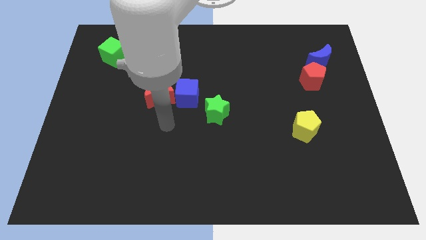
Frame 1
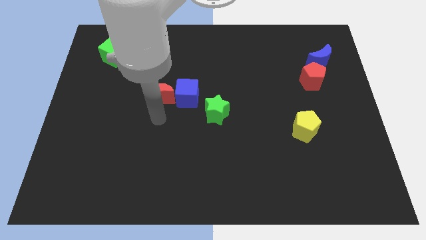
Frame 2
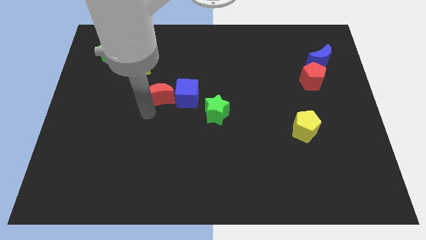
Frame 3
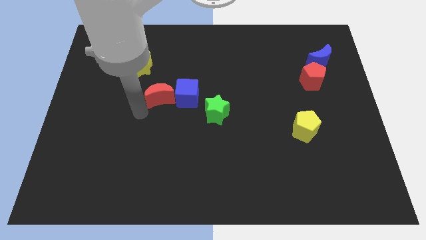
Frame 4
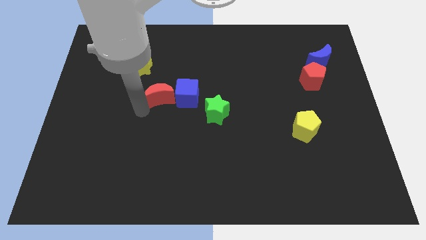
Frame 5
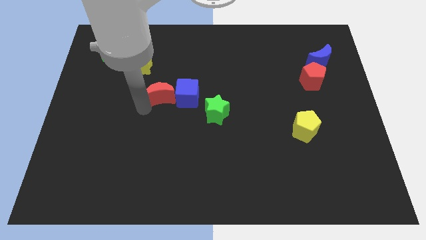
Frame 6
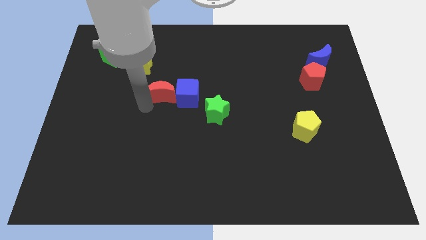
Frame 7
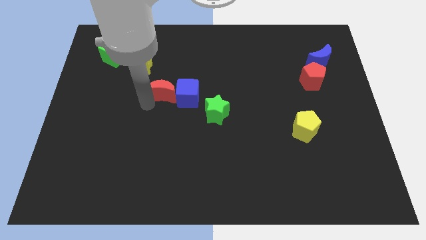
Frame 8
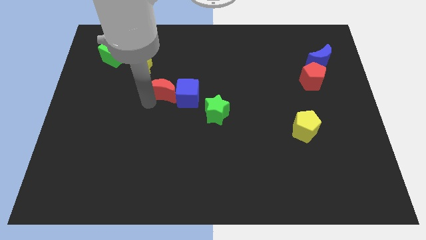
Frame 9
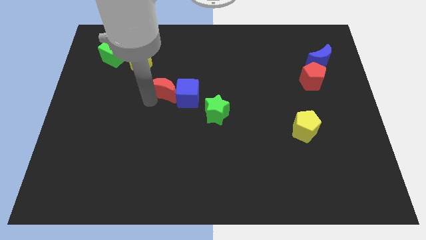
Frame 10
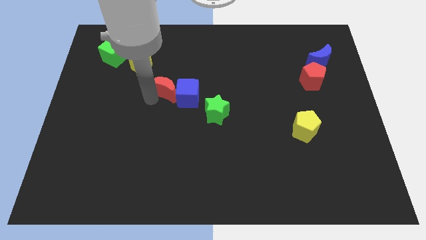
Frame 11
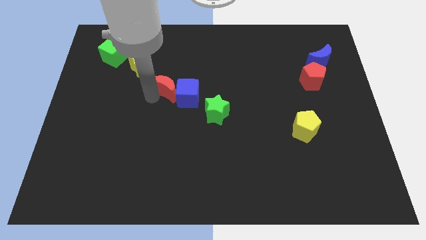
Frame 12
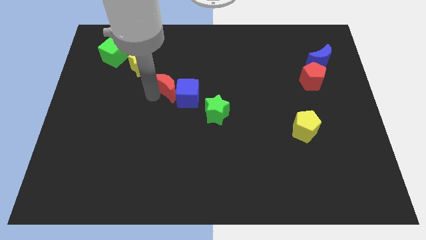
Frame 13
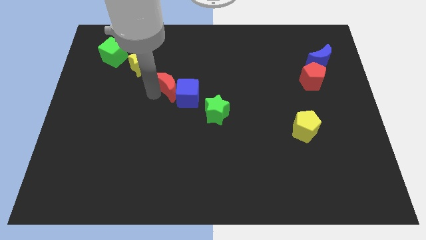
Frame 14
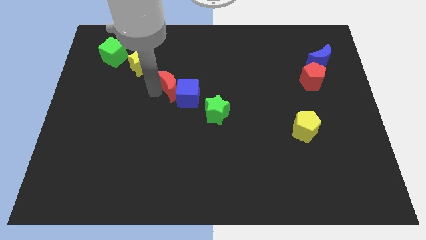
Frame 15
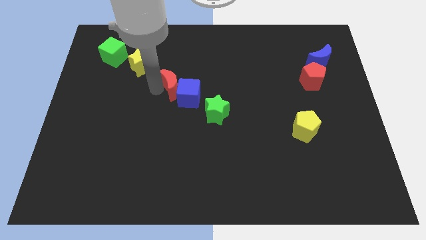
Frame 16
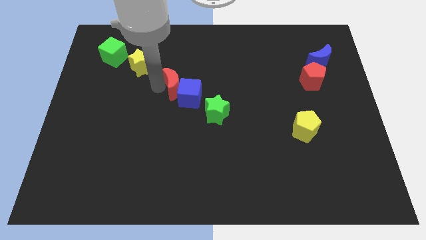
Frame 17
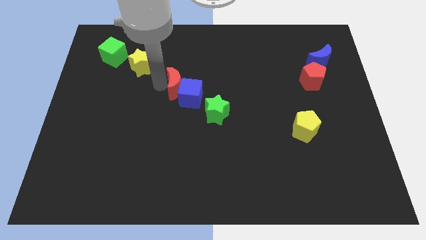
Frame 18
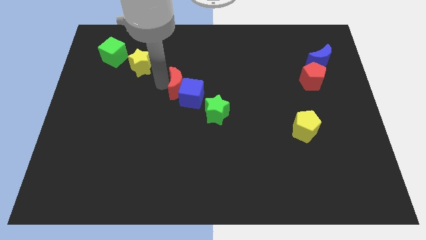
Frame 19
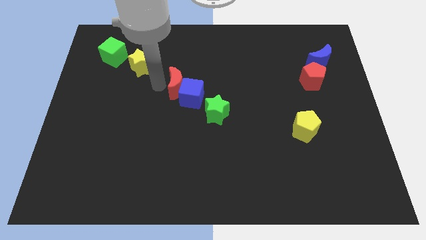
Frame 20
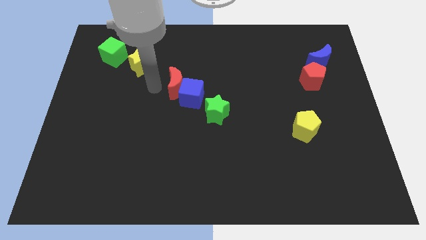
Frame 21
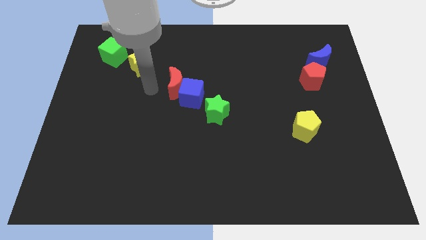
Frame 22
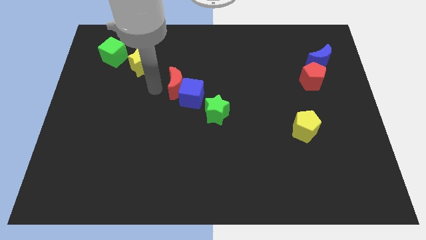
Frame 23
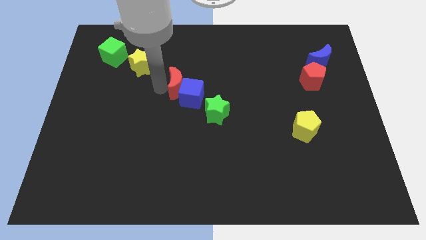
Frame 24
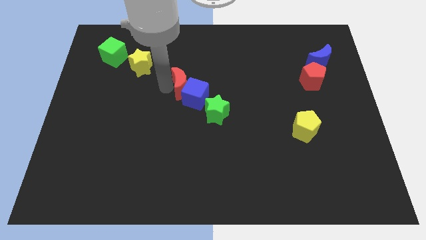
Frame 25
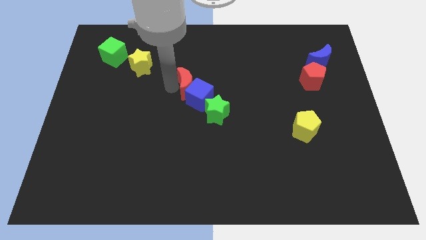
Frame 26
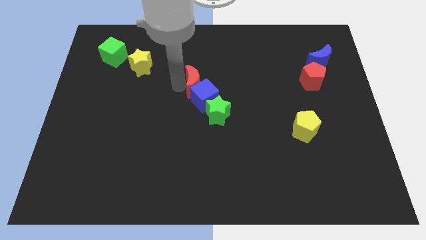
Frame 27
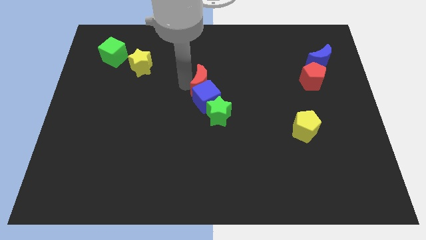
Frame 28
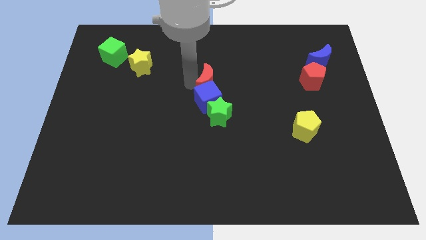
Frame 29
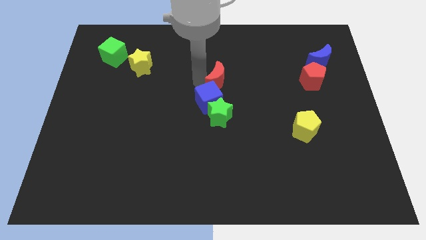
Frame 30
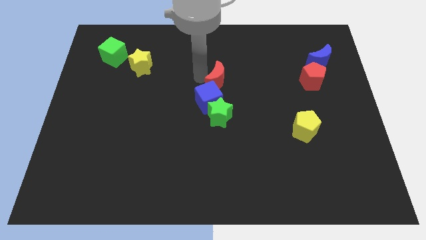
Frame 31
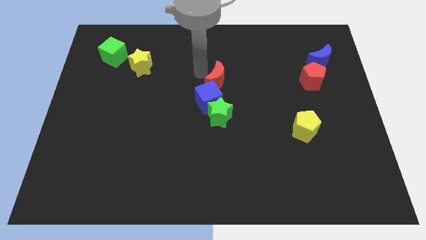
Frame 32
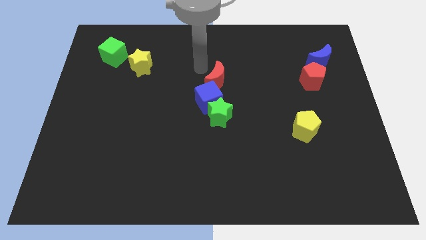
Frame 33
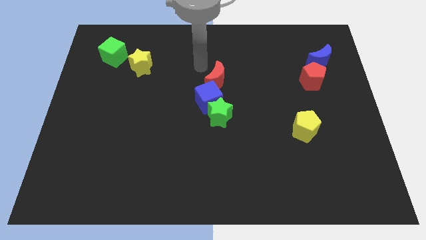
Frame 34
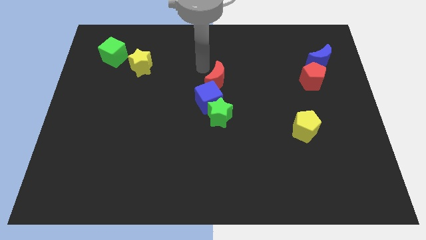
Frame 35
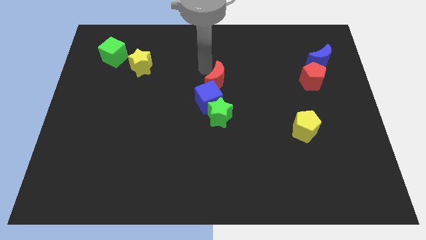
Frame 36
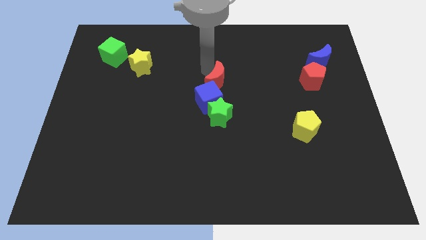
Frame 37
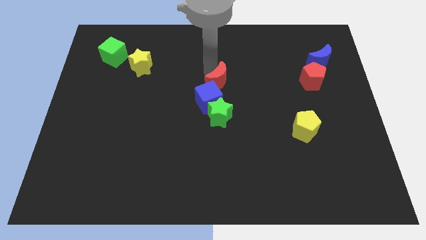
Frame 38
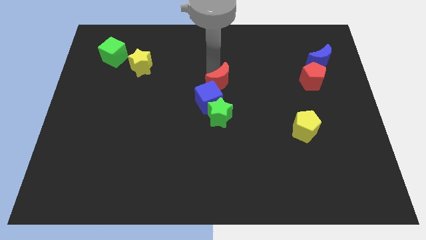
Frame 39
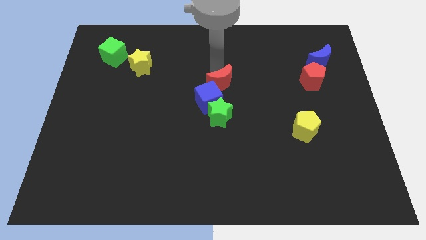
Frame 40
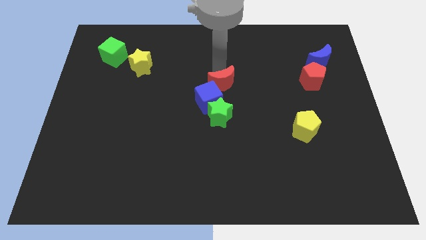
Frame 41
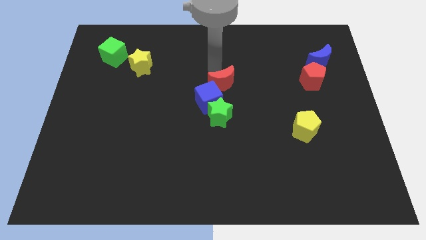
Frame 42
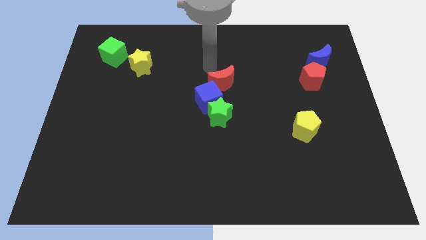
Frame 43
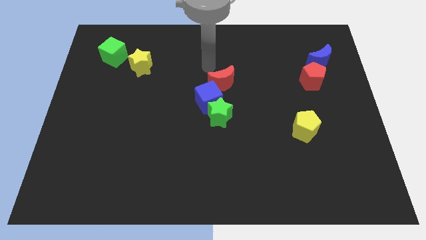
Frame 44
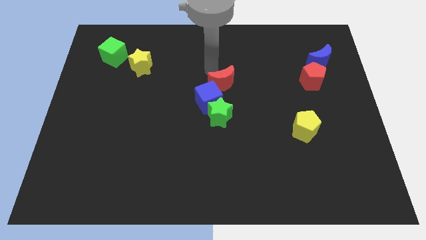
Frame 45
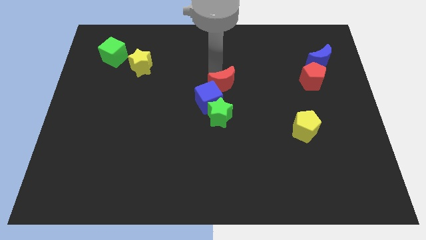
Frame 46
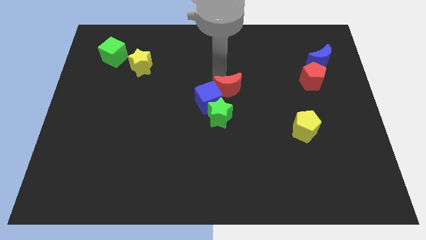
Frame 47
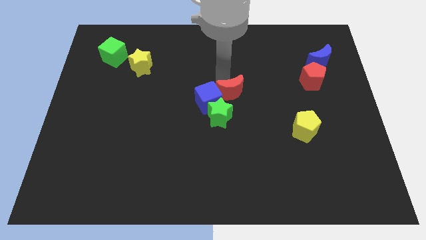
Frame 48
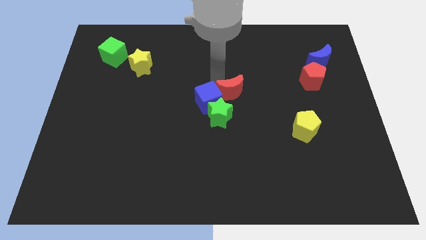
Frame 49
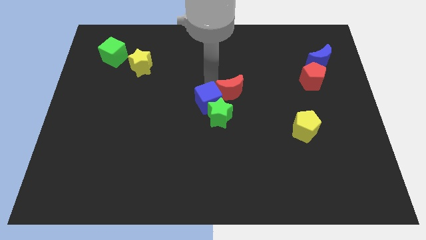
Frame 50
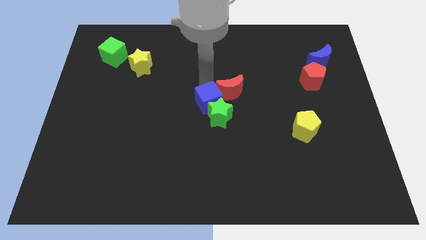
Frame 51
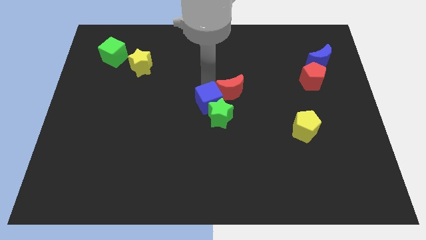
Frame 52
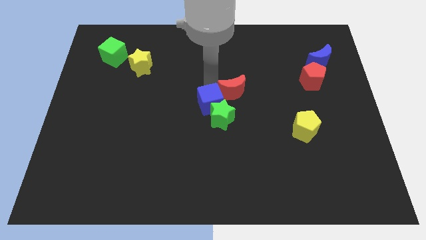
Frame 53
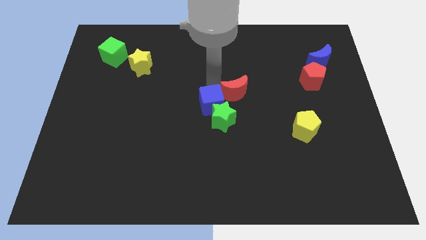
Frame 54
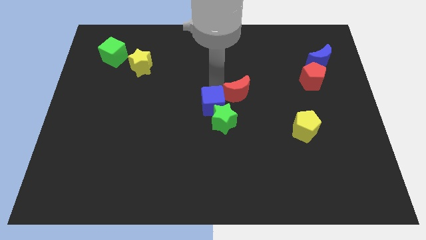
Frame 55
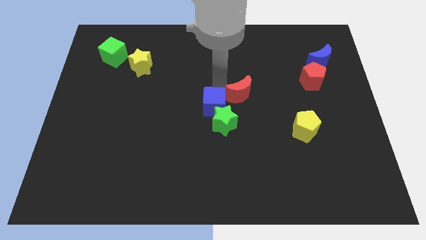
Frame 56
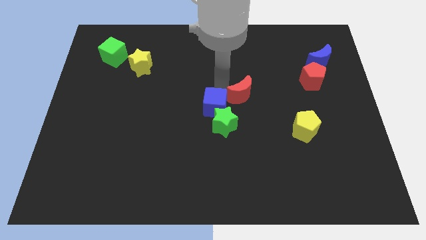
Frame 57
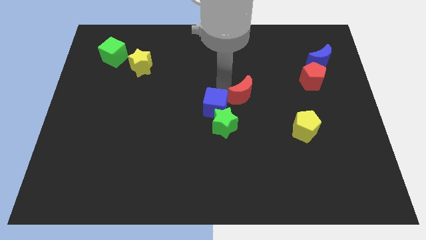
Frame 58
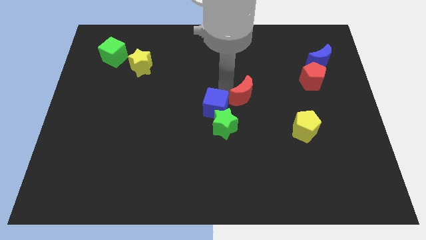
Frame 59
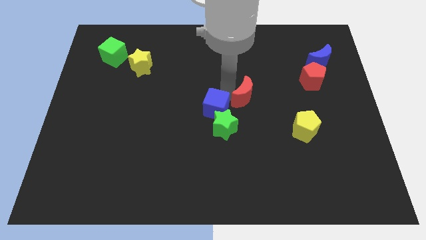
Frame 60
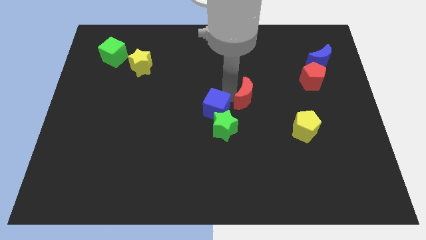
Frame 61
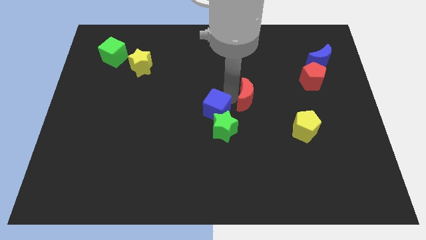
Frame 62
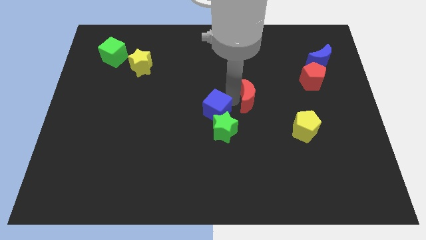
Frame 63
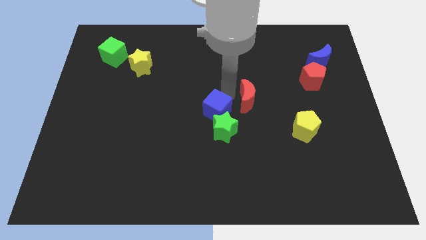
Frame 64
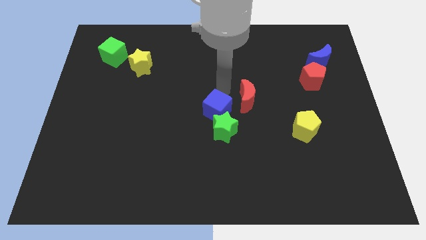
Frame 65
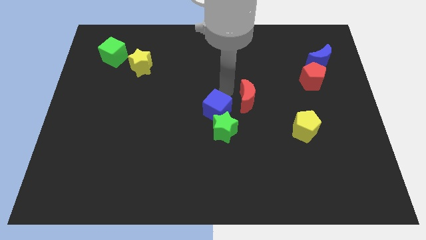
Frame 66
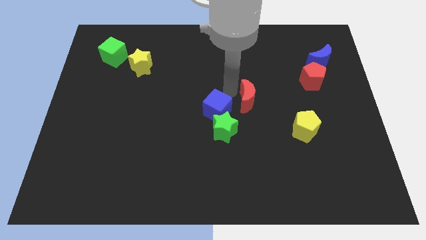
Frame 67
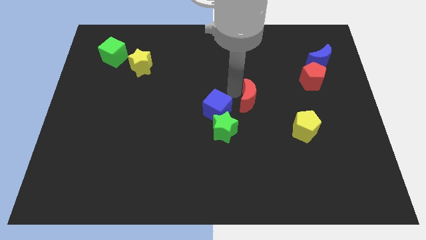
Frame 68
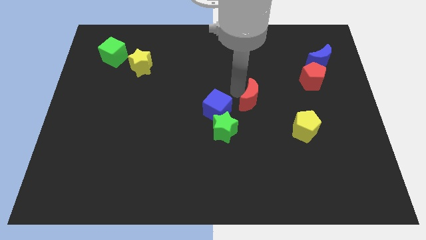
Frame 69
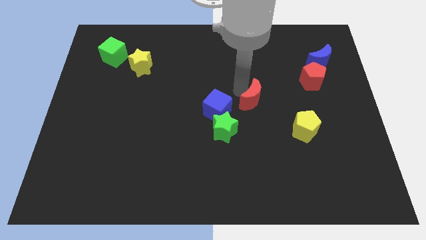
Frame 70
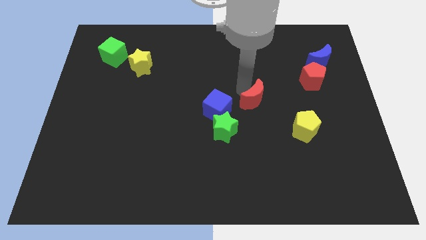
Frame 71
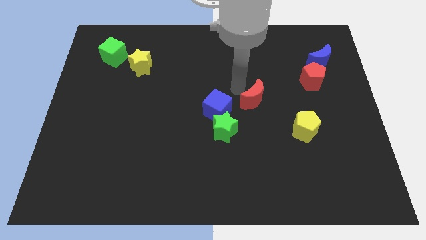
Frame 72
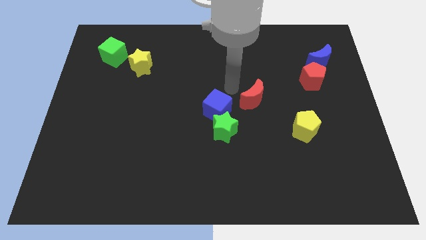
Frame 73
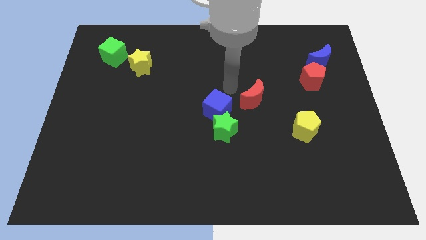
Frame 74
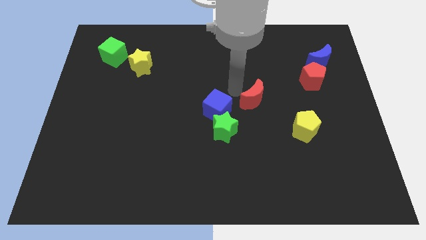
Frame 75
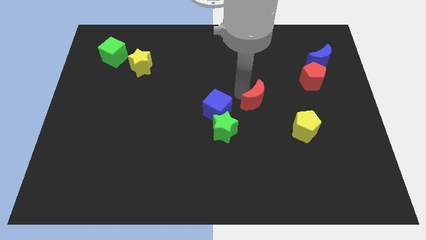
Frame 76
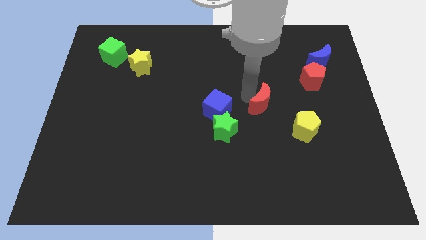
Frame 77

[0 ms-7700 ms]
move the red moon diagonally up and to the left of the yellow pentagon
